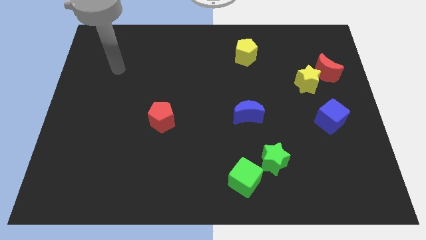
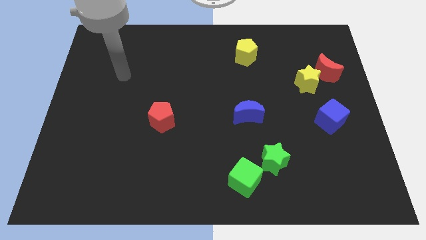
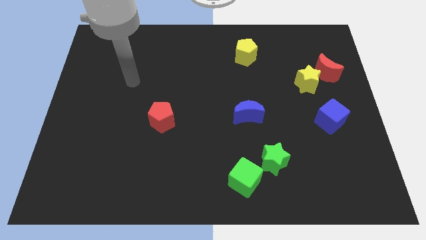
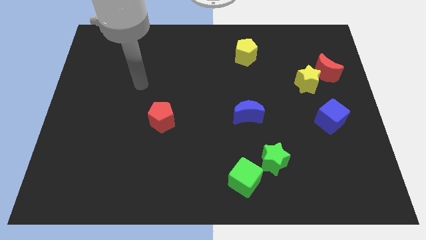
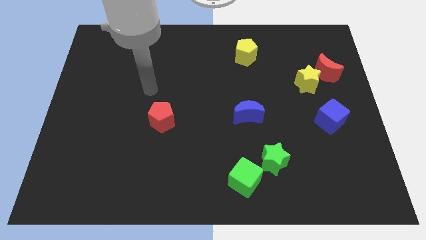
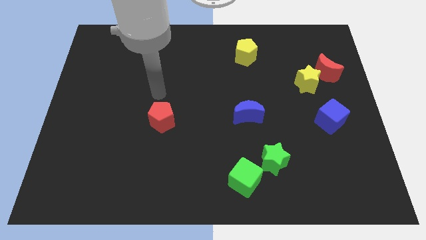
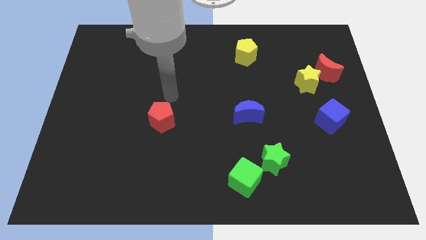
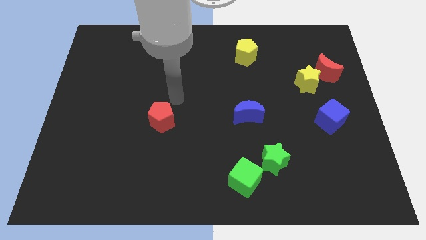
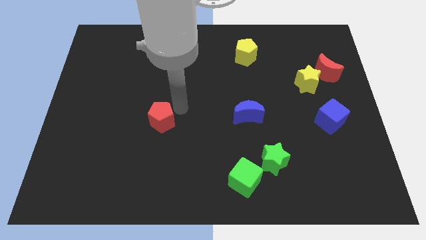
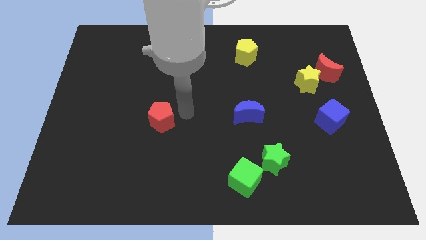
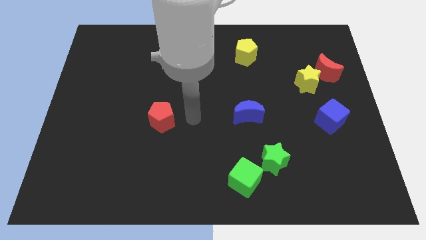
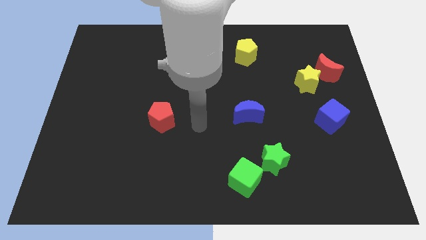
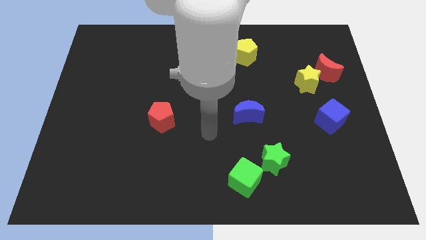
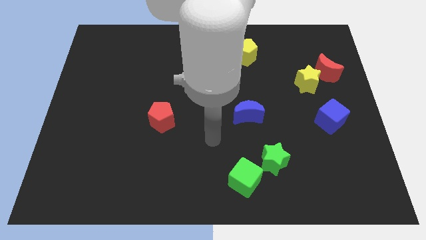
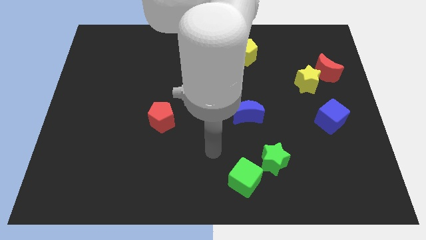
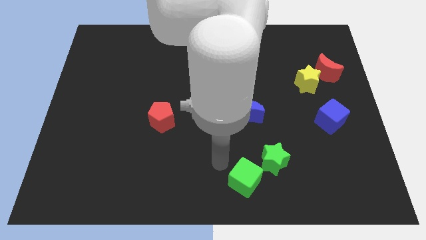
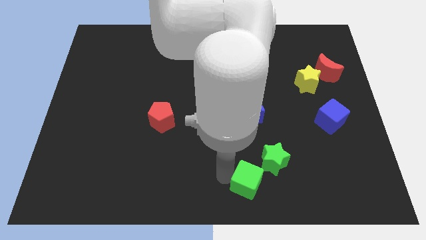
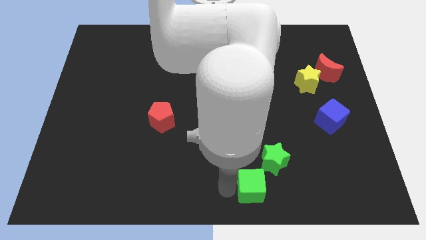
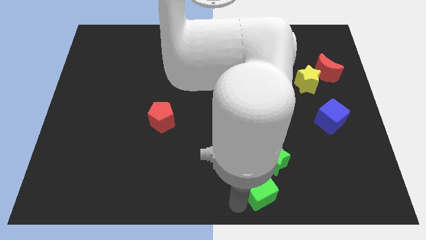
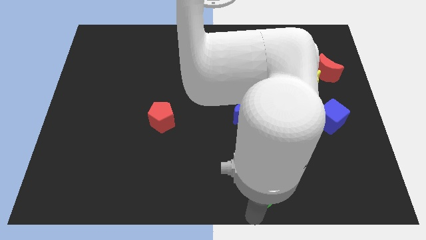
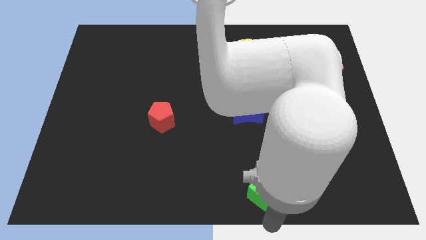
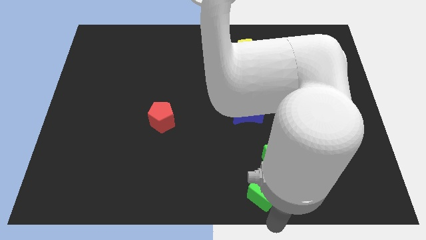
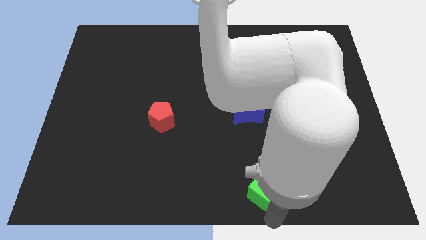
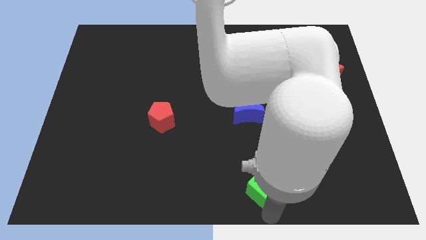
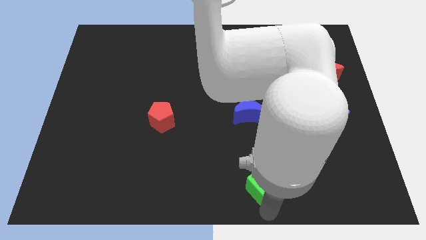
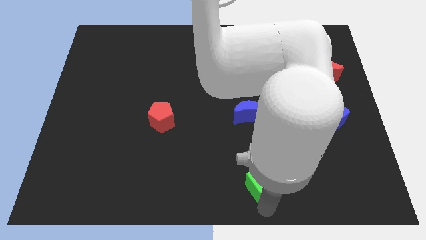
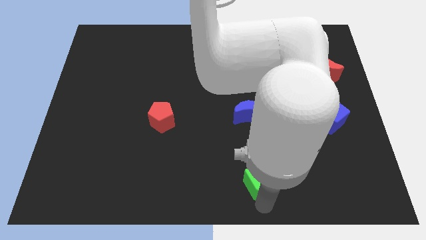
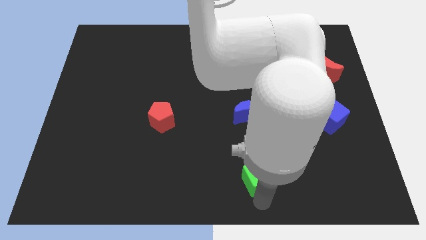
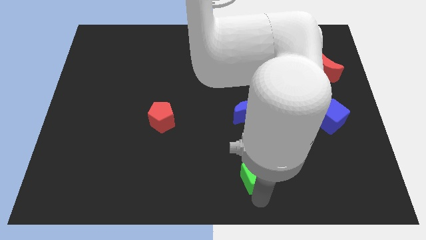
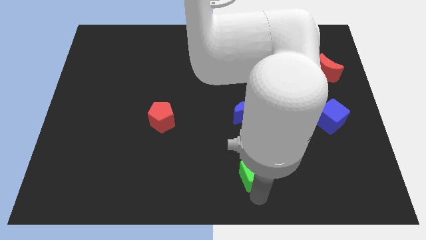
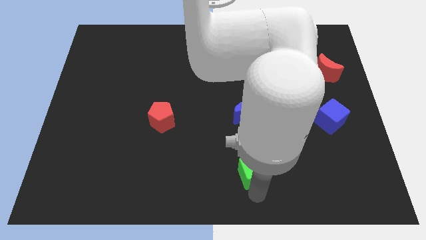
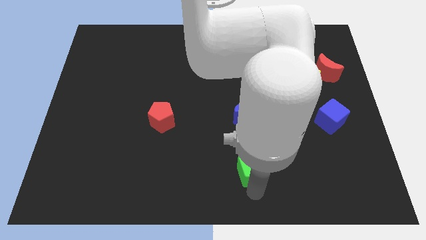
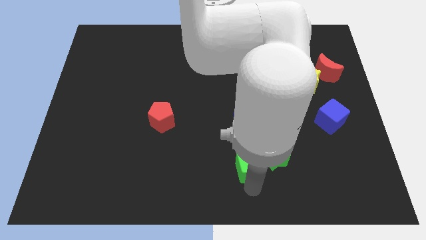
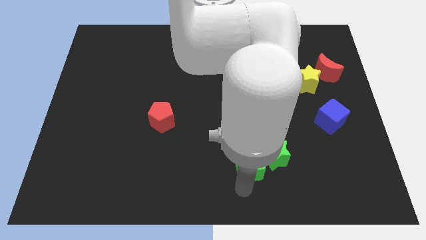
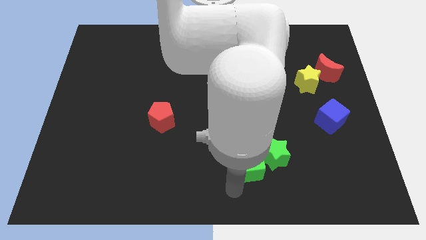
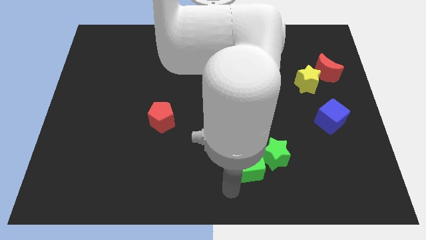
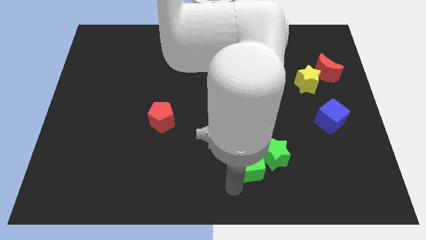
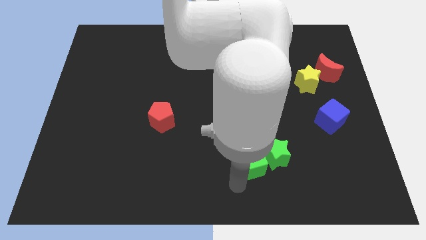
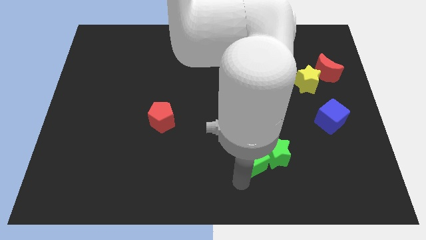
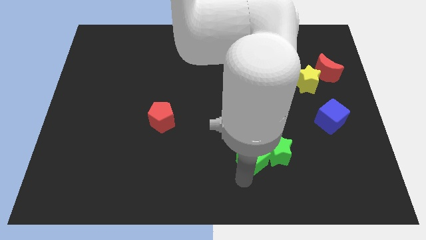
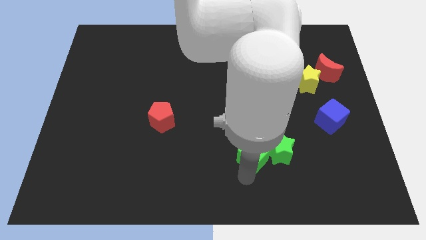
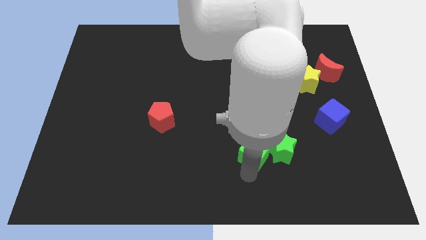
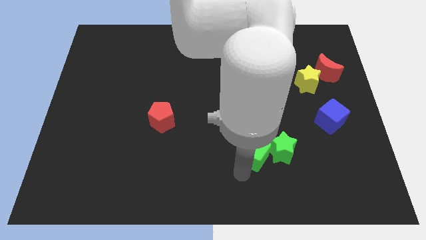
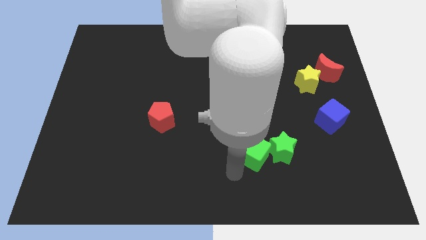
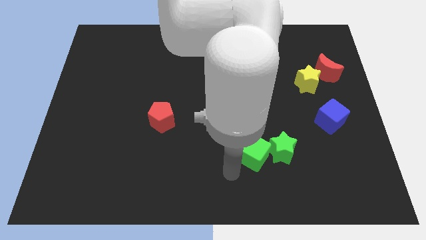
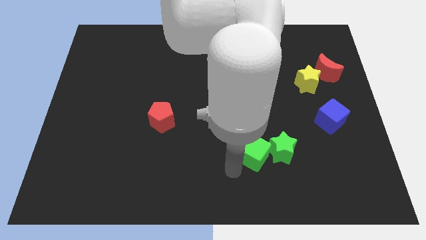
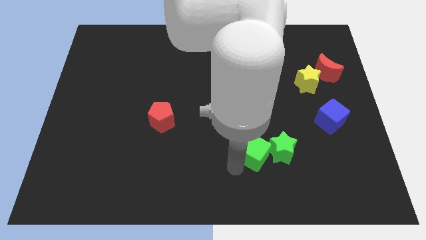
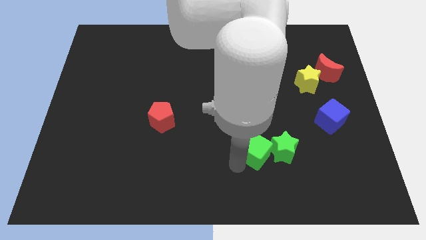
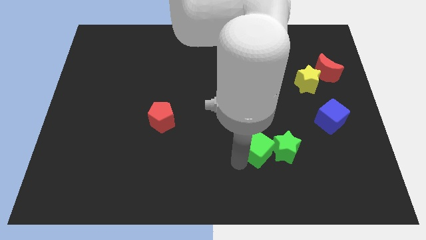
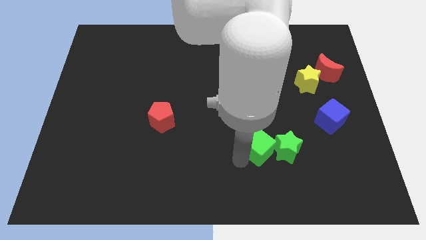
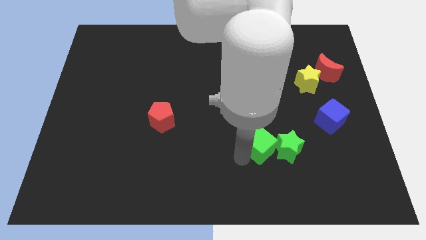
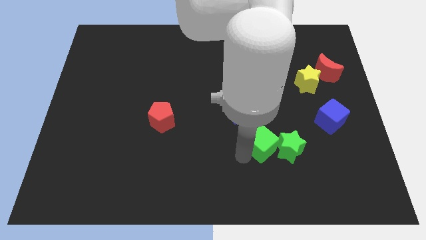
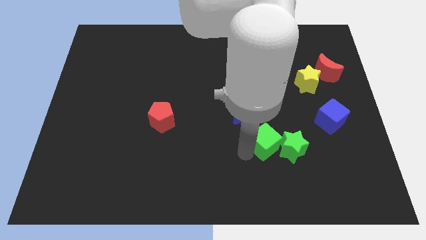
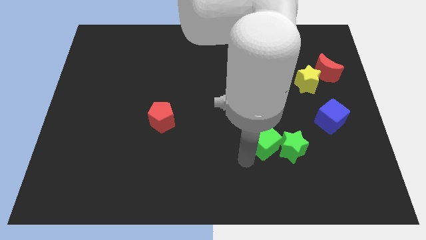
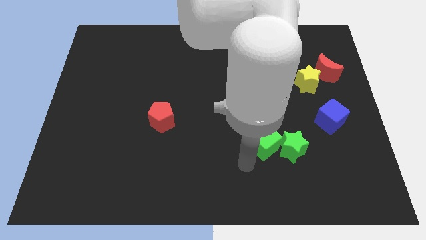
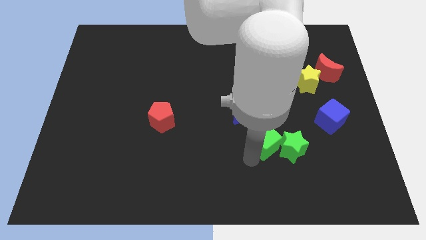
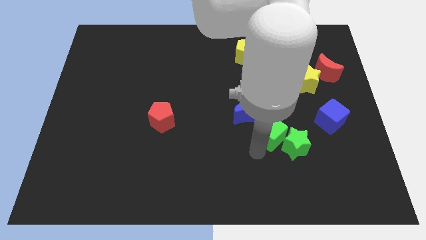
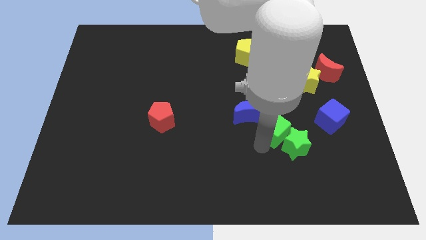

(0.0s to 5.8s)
slide the green cube just left of the blue cube

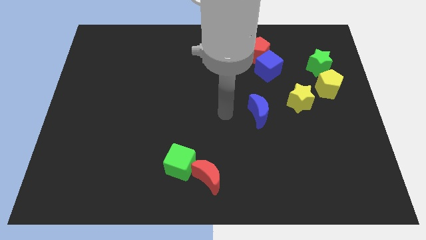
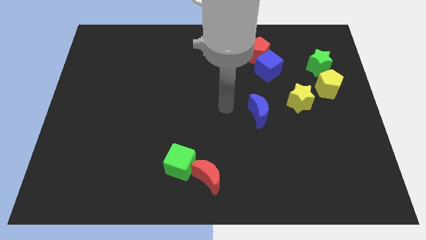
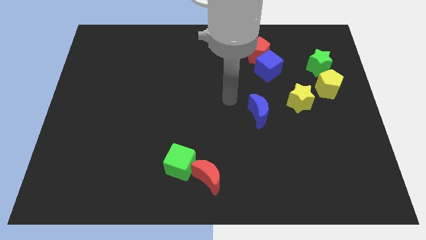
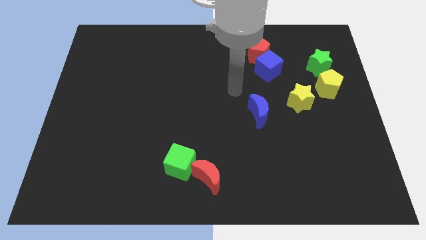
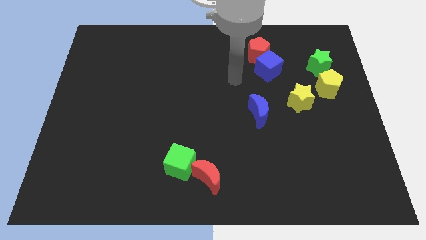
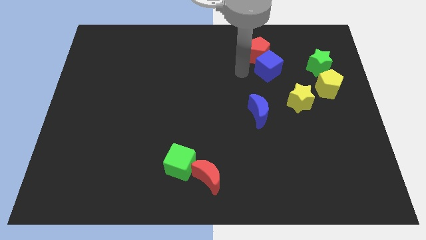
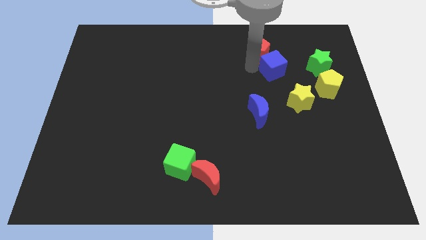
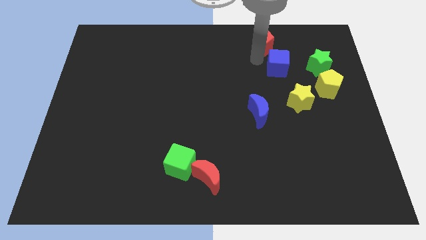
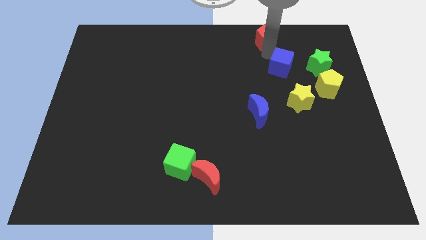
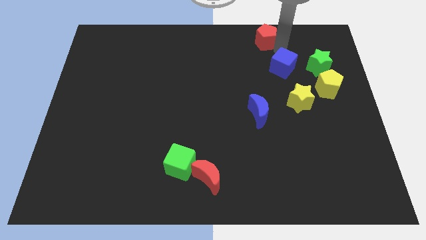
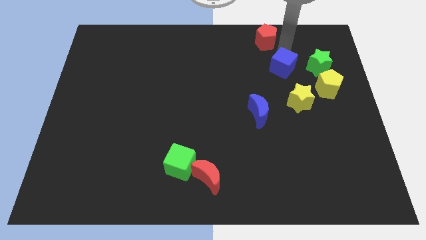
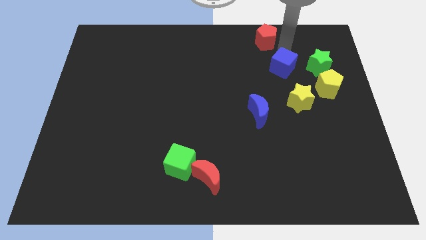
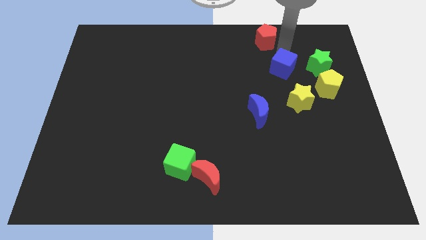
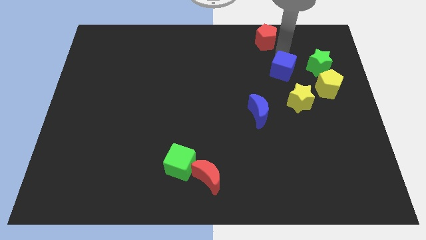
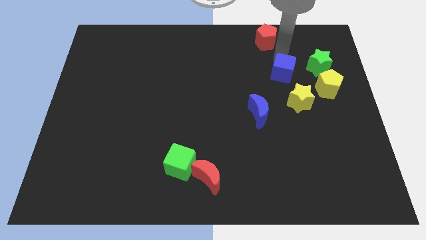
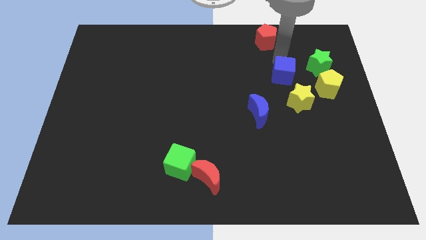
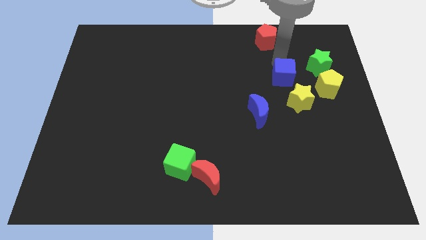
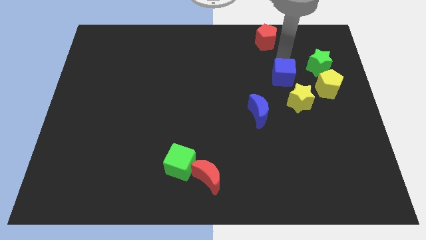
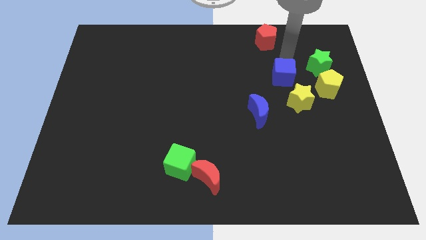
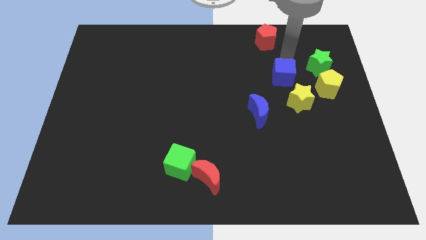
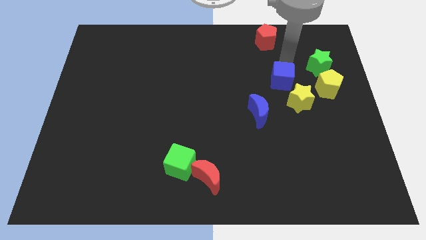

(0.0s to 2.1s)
push the blue cube to the top right of the blue moon
